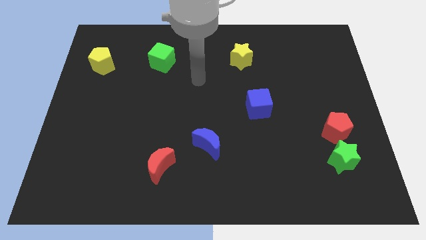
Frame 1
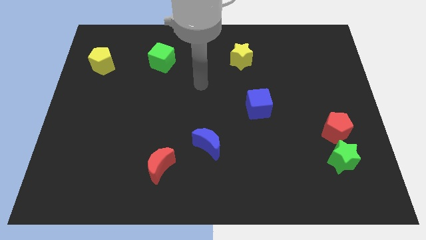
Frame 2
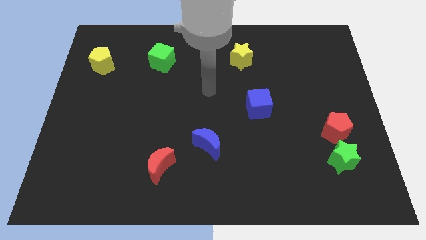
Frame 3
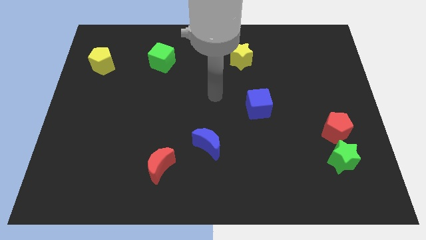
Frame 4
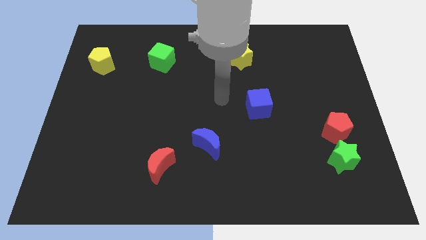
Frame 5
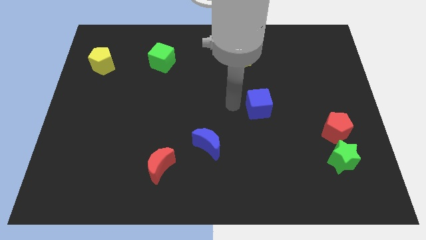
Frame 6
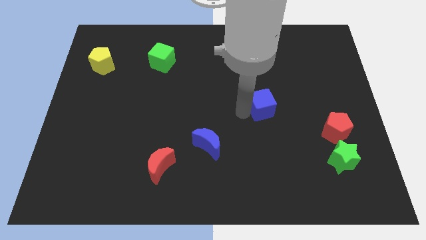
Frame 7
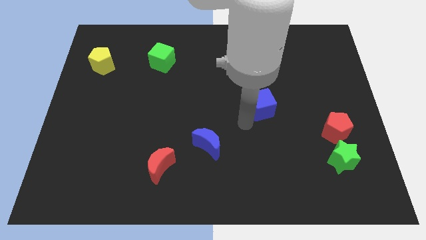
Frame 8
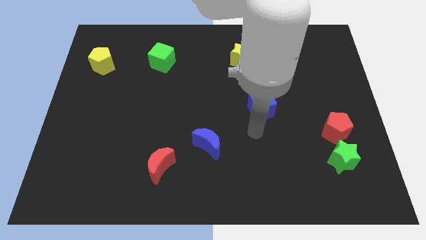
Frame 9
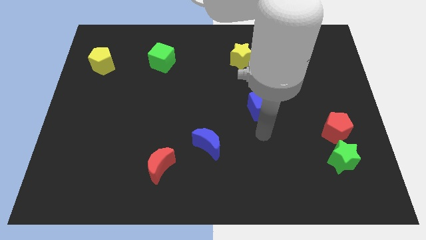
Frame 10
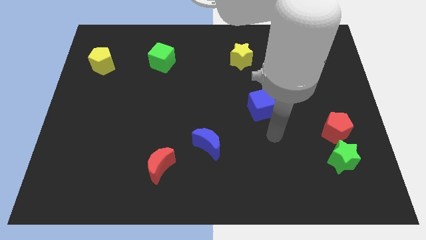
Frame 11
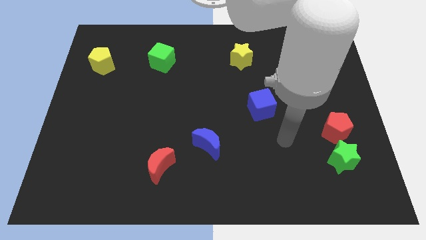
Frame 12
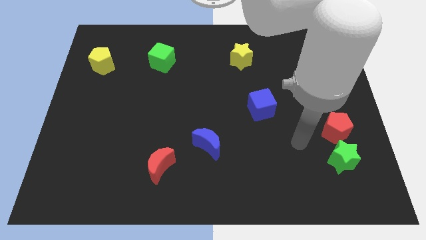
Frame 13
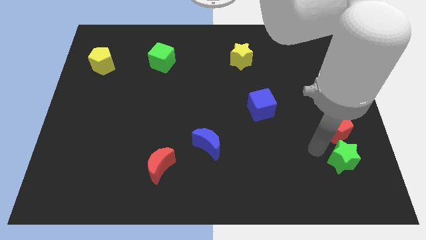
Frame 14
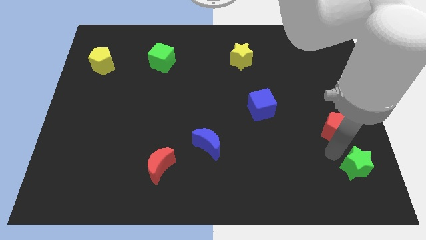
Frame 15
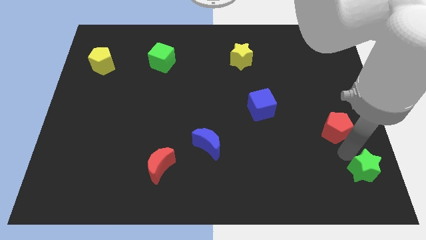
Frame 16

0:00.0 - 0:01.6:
move the red pentagon away from the green star

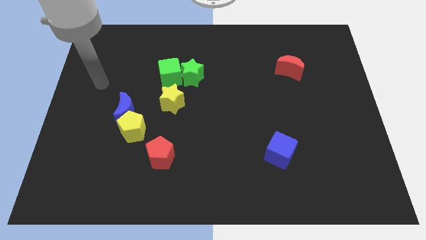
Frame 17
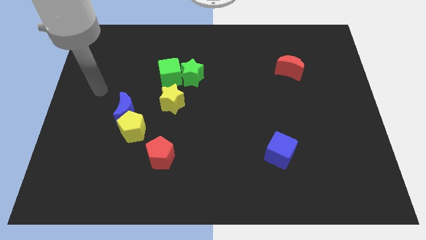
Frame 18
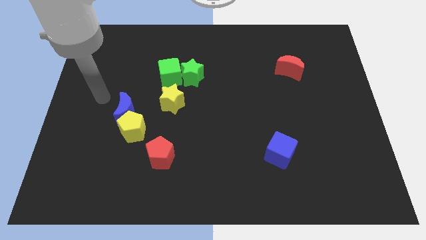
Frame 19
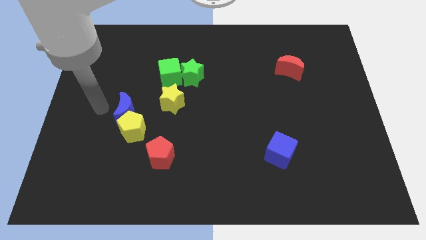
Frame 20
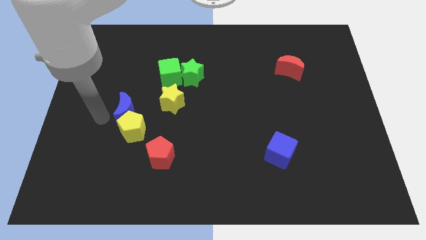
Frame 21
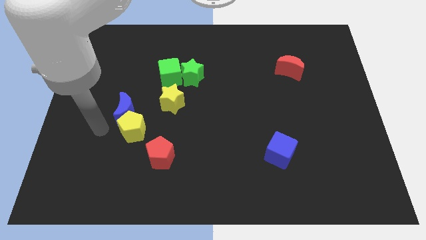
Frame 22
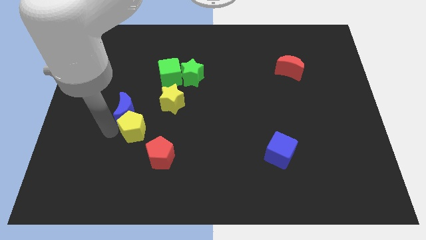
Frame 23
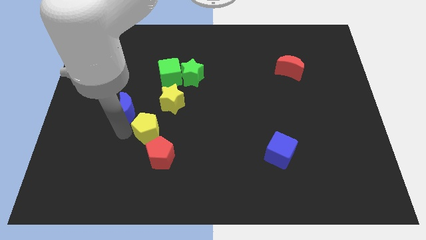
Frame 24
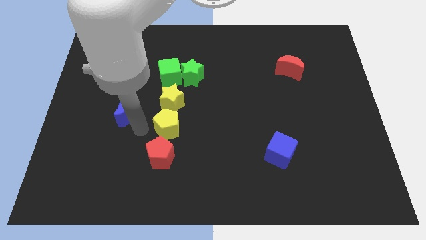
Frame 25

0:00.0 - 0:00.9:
separate the blue moon from the yellow pentagon

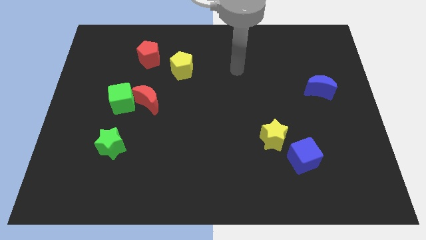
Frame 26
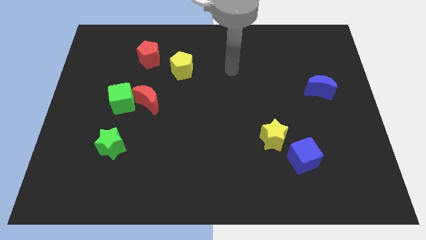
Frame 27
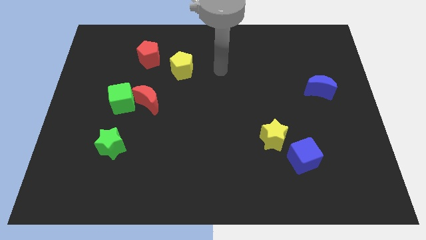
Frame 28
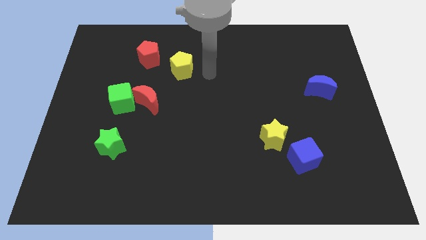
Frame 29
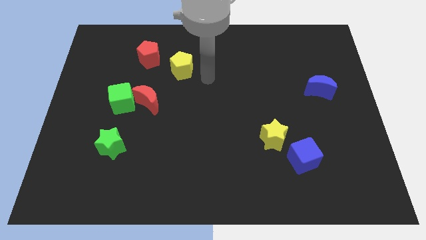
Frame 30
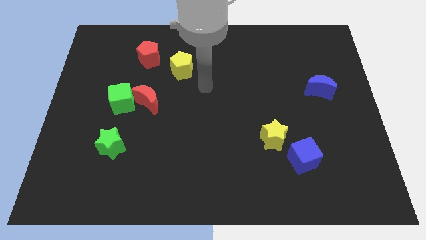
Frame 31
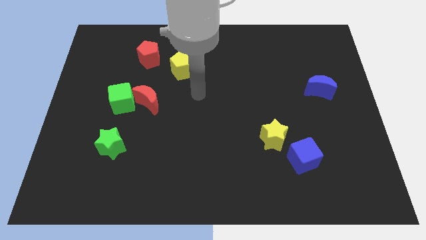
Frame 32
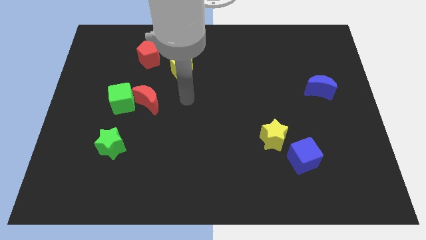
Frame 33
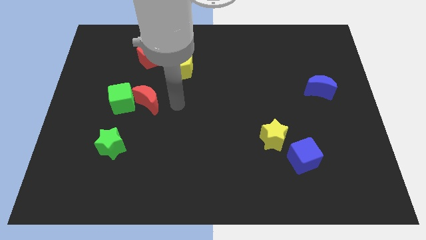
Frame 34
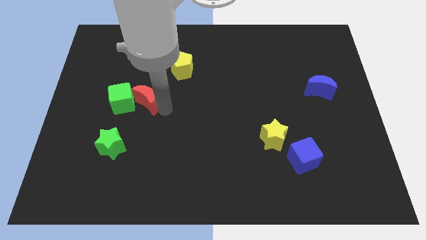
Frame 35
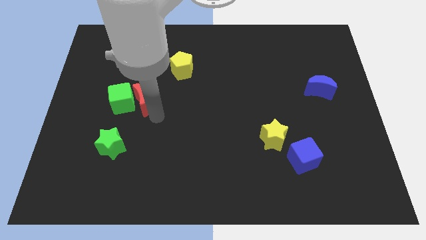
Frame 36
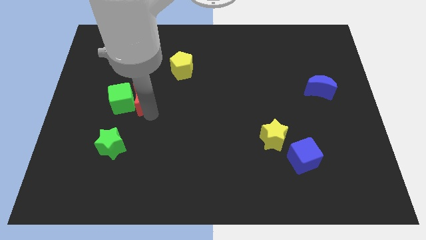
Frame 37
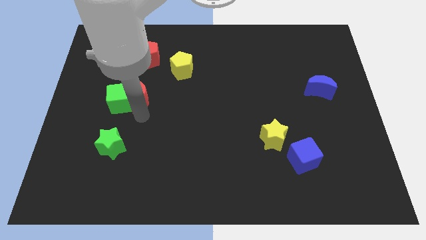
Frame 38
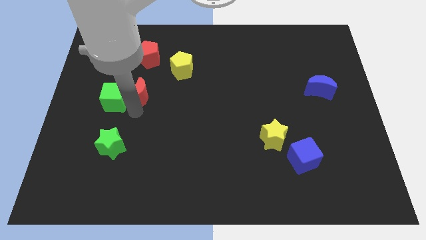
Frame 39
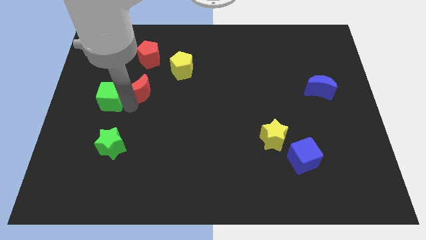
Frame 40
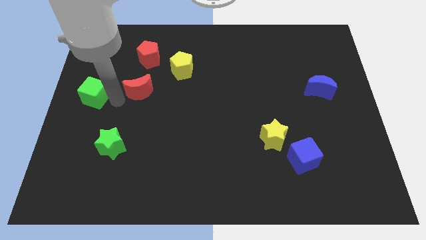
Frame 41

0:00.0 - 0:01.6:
pull the red moon apart from the green cube

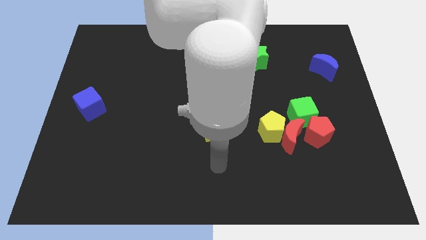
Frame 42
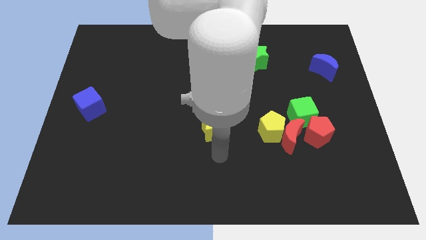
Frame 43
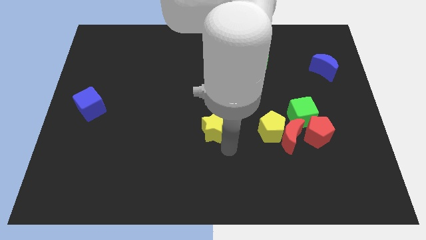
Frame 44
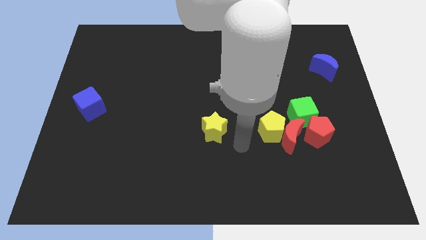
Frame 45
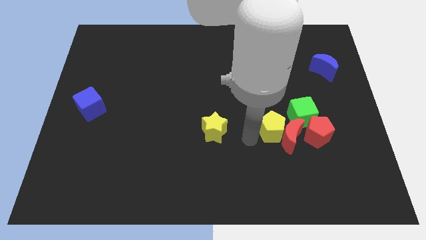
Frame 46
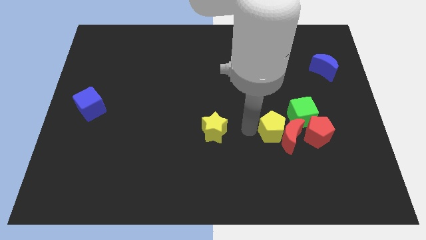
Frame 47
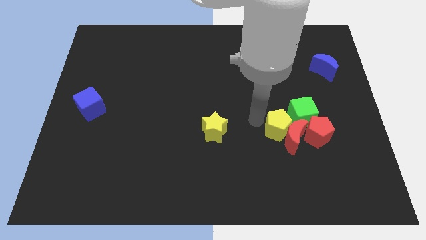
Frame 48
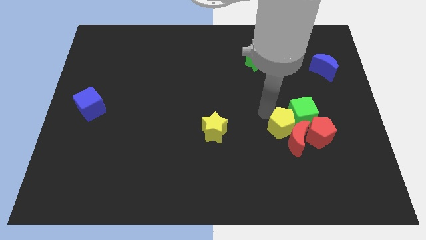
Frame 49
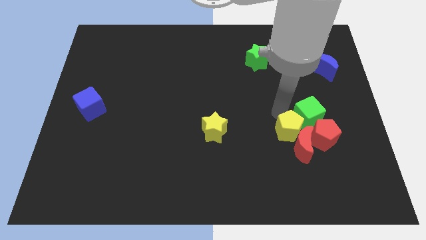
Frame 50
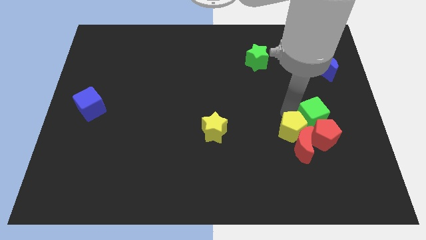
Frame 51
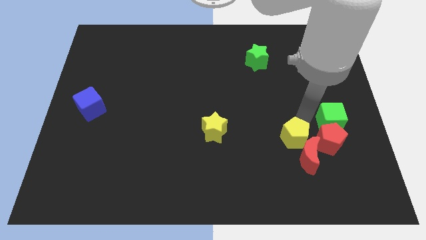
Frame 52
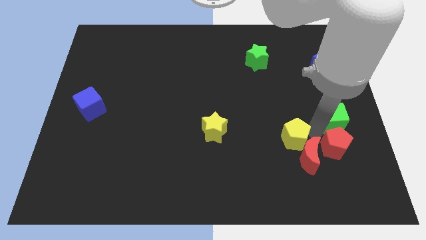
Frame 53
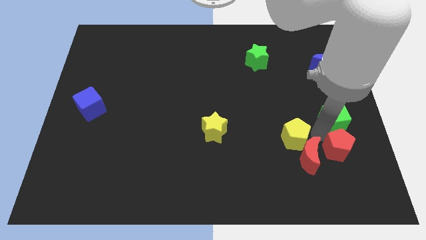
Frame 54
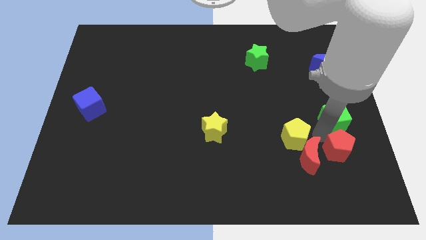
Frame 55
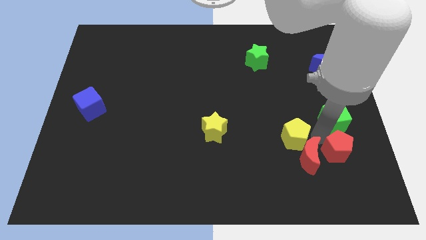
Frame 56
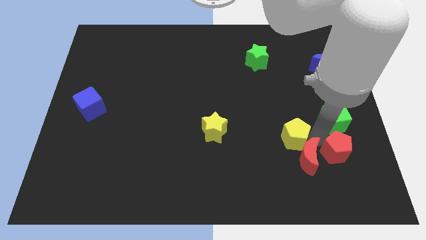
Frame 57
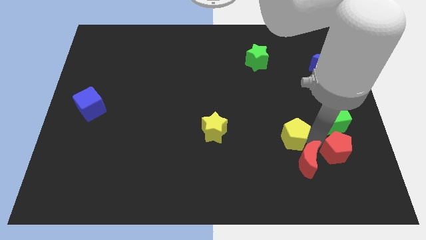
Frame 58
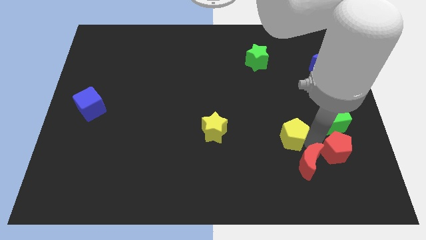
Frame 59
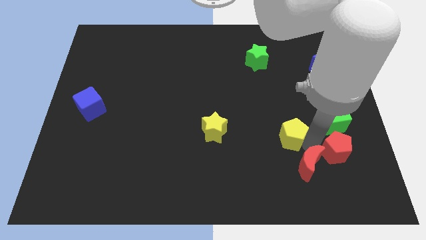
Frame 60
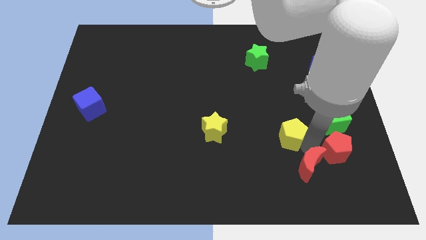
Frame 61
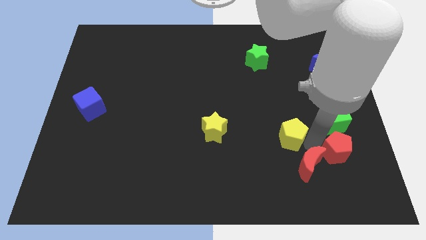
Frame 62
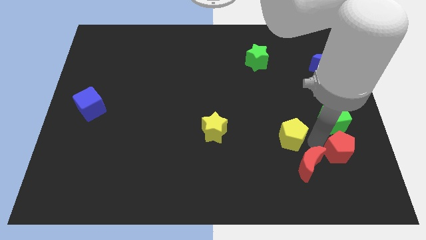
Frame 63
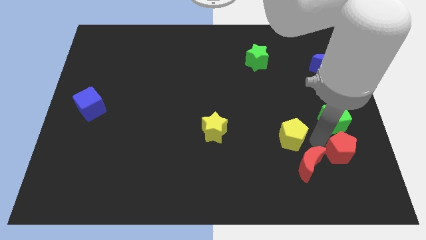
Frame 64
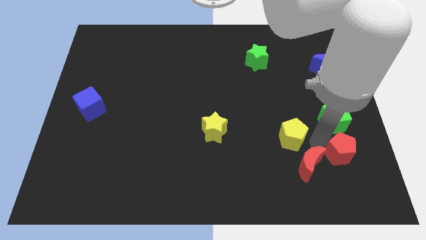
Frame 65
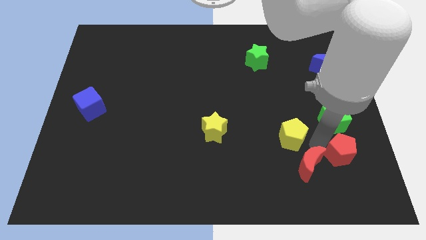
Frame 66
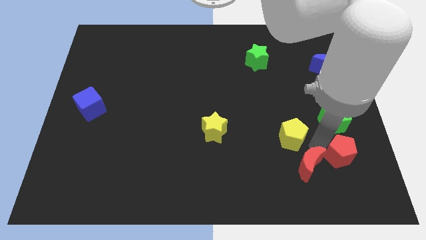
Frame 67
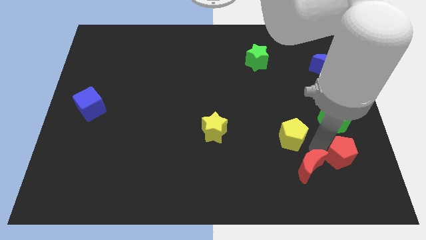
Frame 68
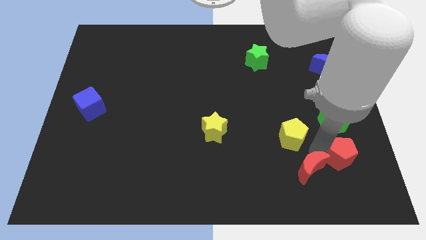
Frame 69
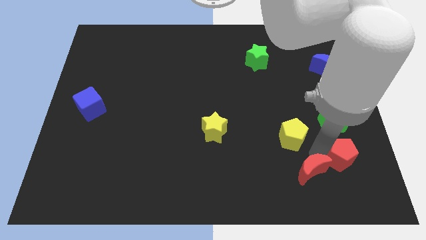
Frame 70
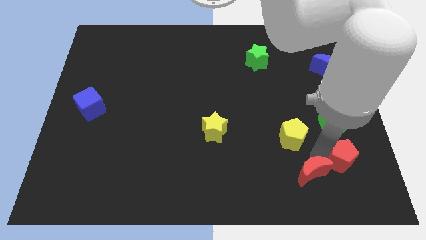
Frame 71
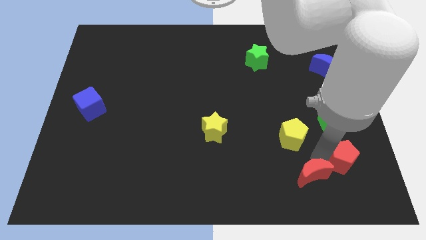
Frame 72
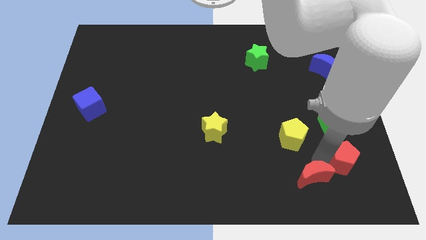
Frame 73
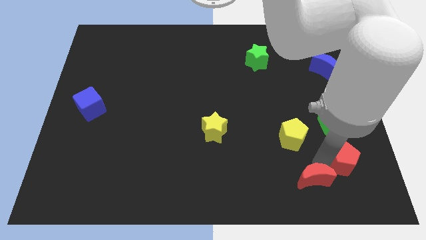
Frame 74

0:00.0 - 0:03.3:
pull the red moon apart from the group of blocks

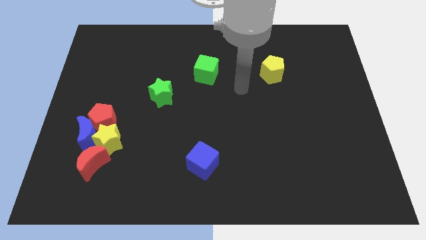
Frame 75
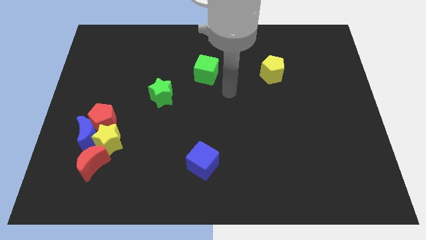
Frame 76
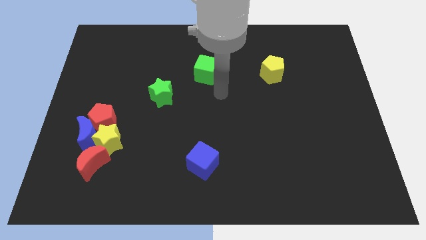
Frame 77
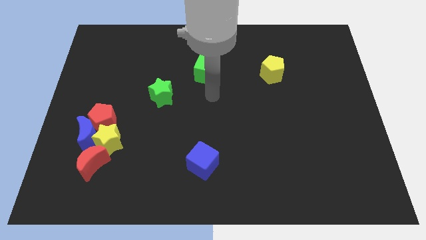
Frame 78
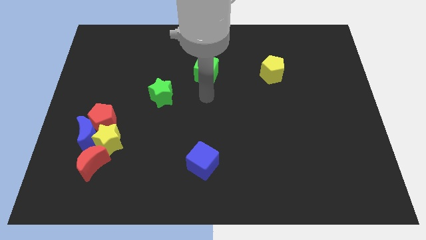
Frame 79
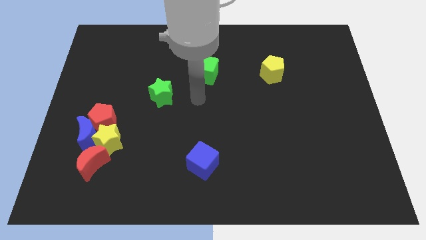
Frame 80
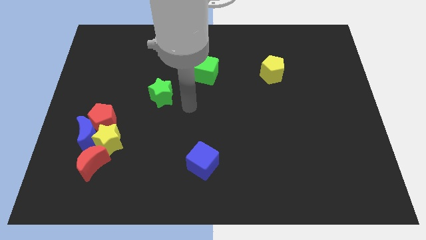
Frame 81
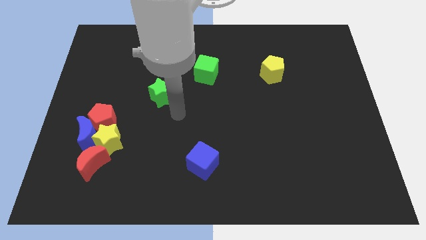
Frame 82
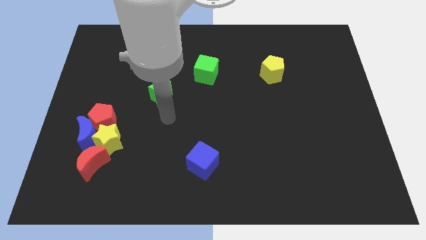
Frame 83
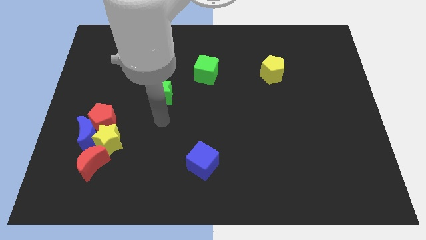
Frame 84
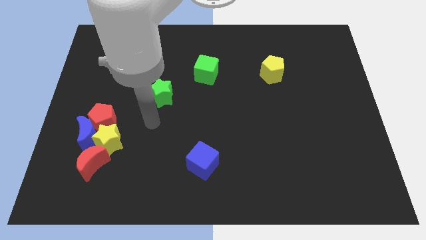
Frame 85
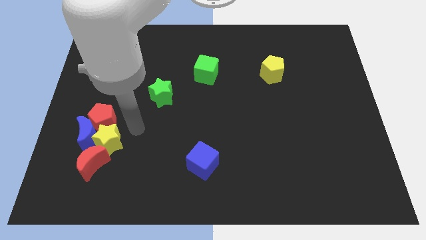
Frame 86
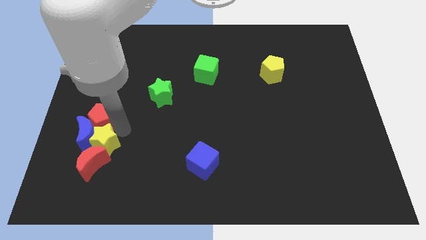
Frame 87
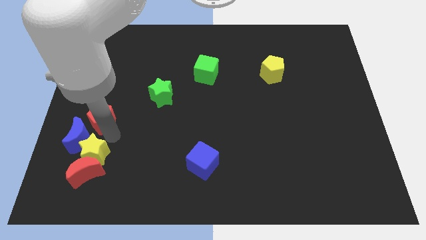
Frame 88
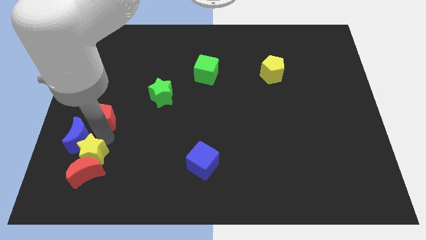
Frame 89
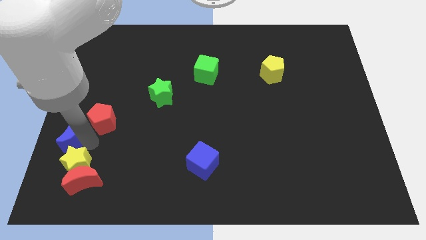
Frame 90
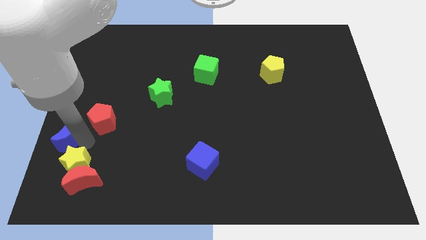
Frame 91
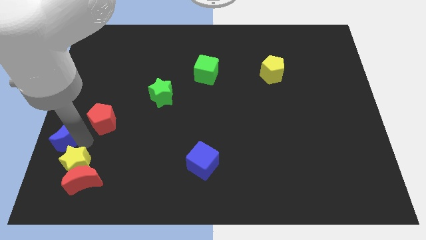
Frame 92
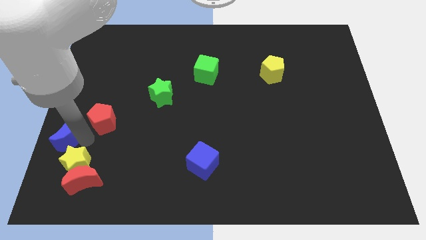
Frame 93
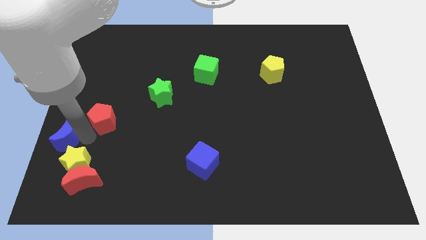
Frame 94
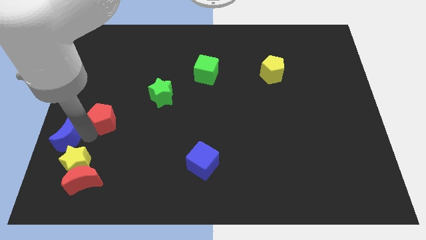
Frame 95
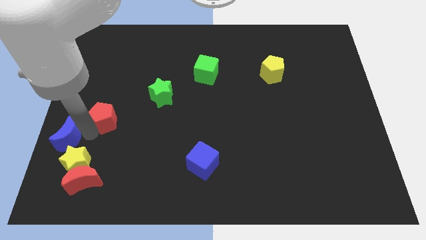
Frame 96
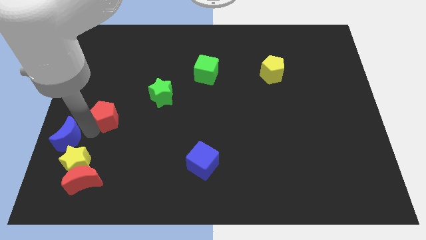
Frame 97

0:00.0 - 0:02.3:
move the red pentagon away from the blue moon and yellow star
